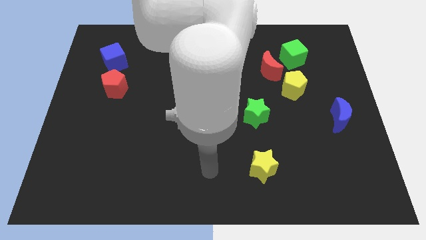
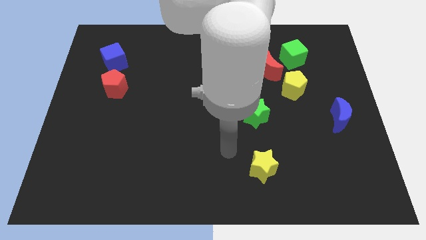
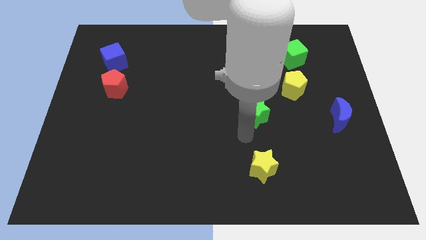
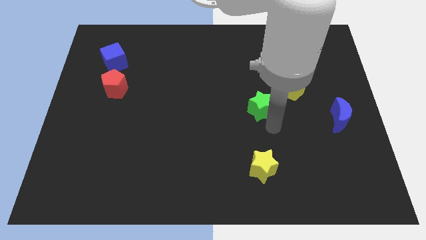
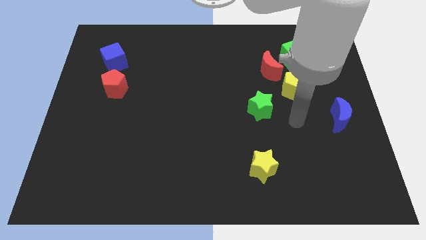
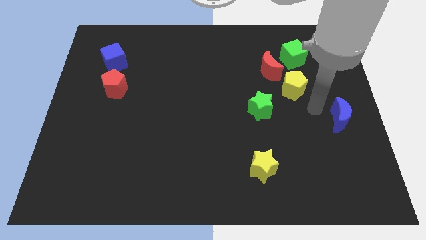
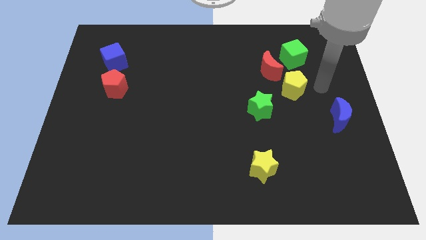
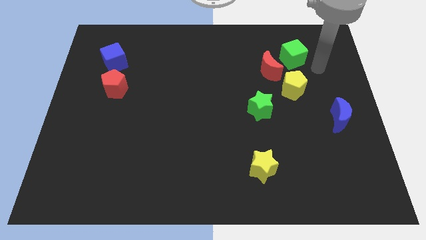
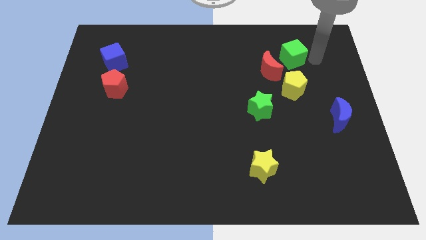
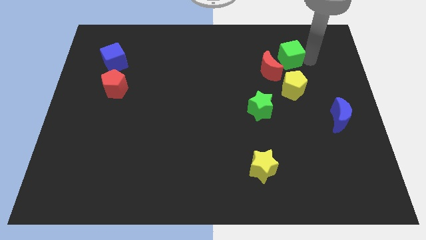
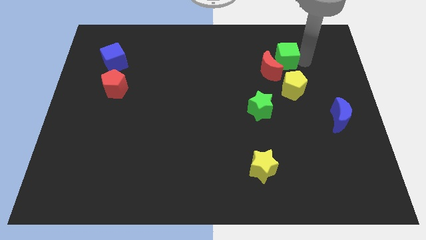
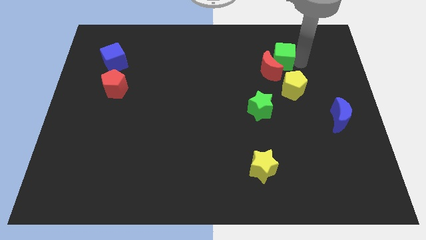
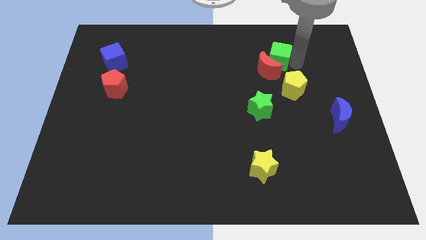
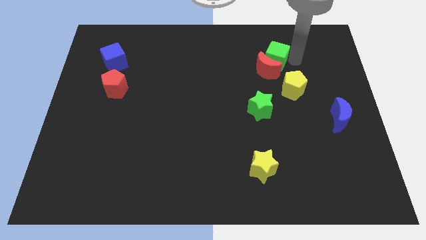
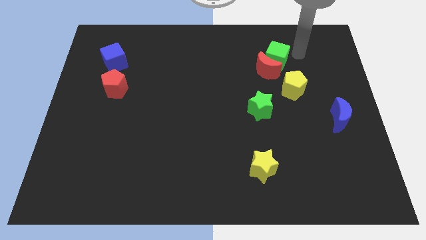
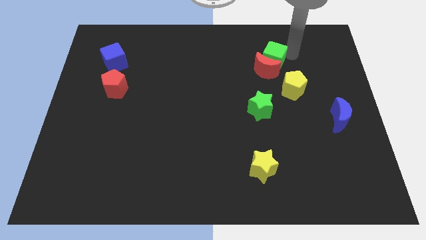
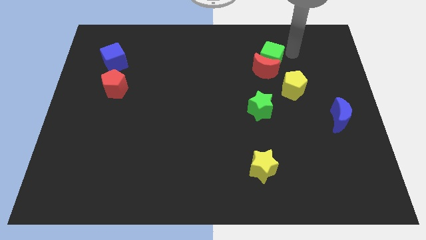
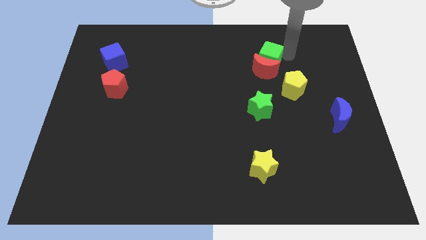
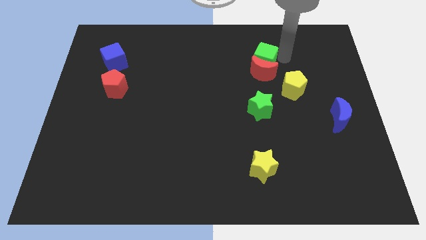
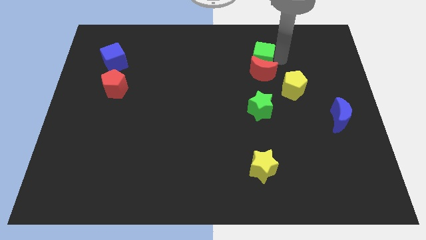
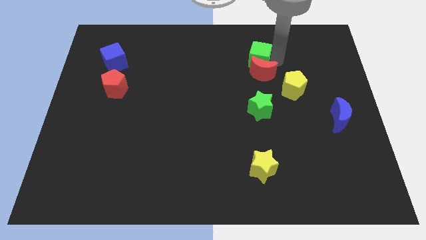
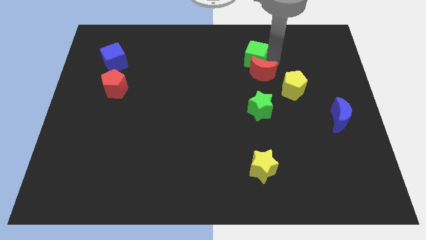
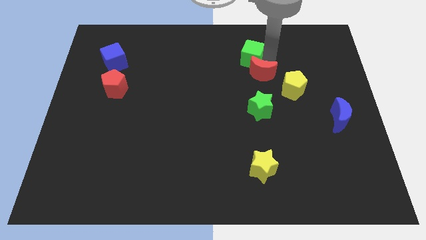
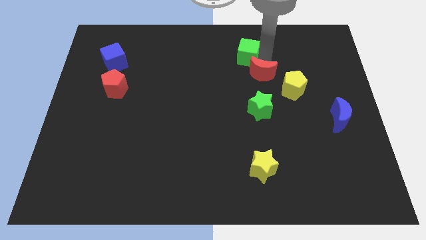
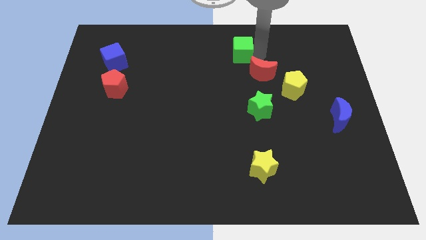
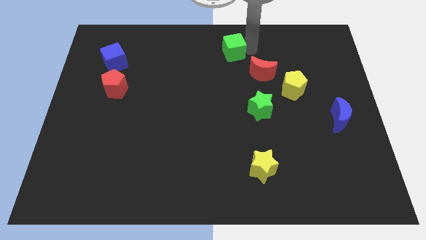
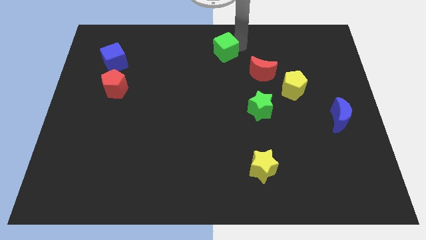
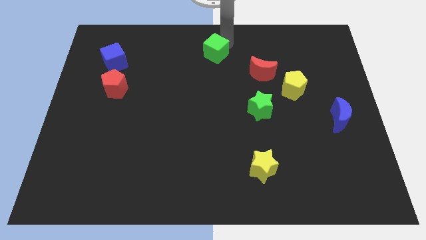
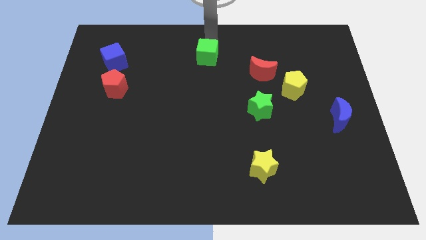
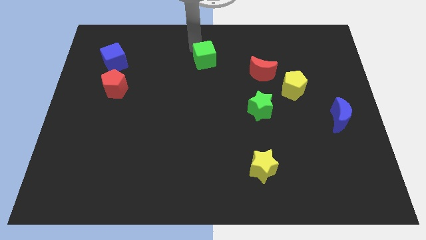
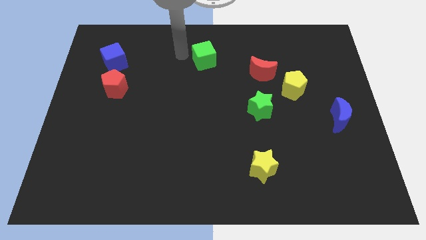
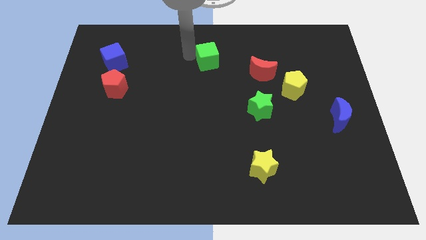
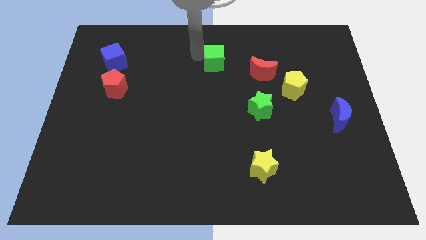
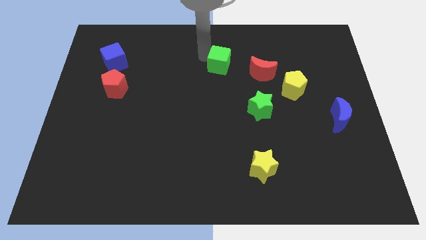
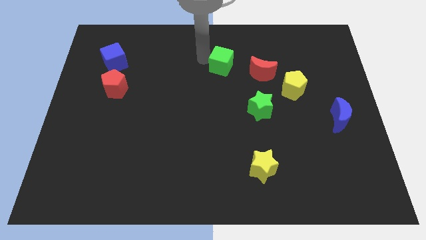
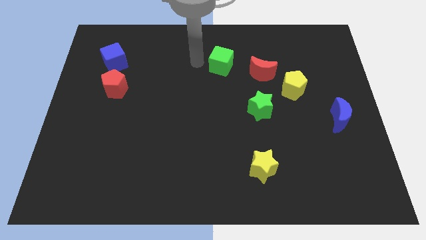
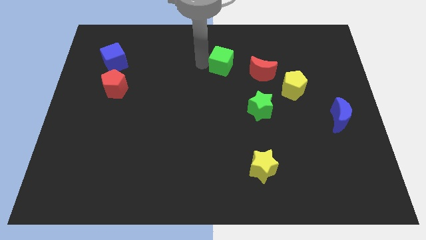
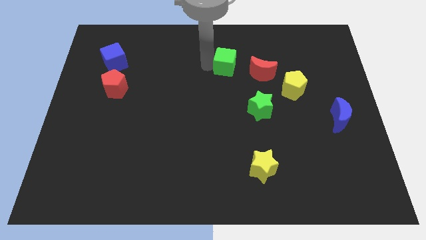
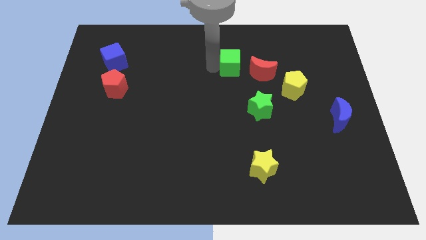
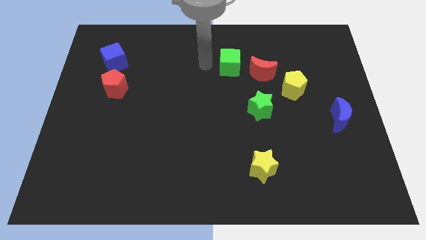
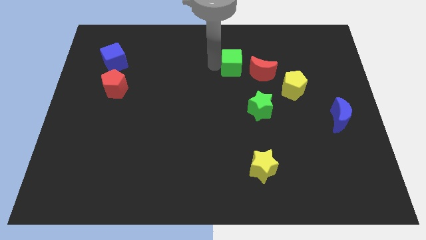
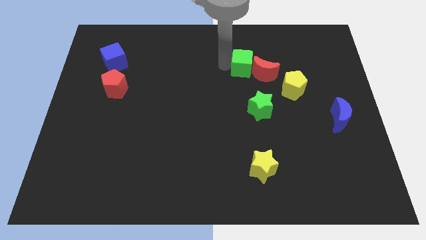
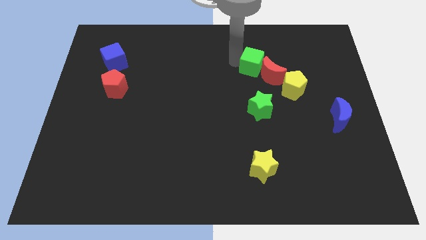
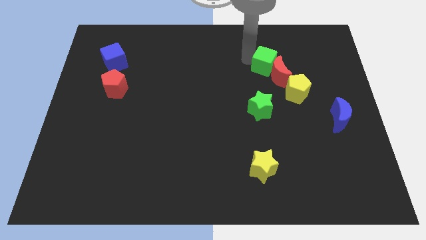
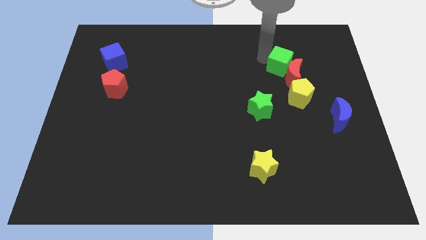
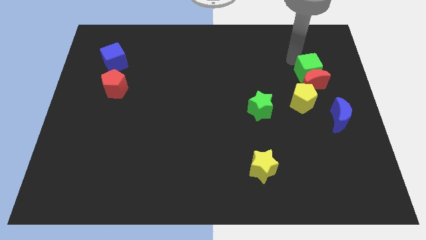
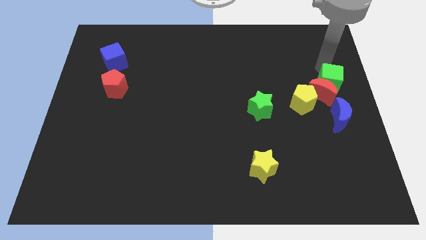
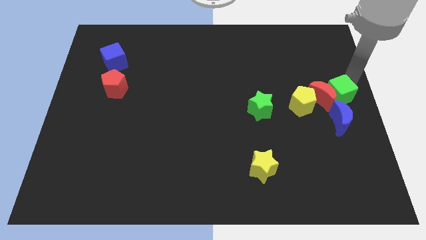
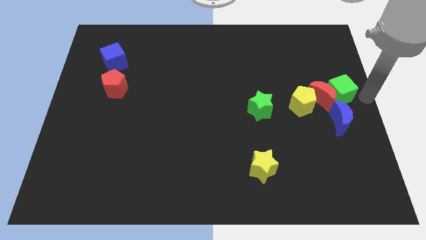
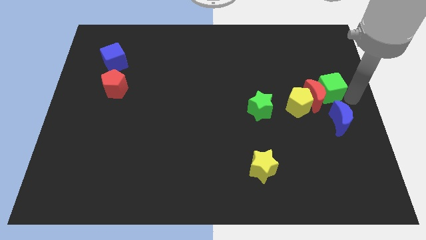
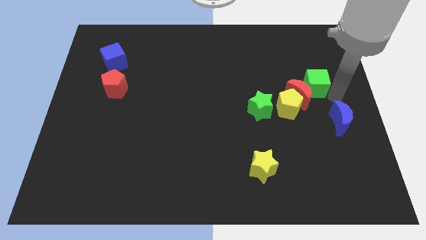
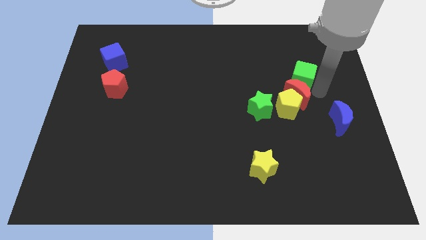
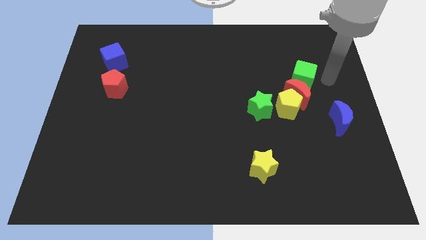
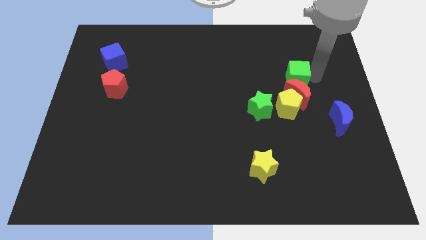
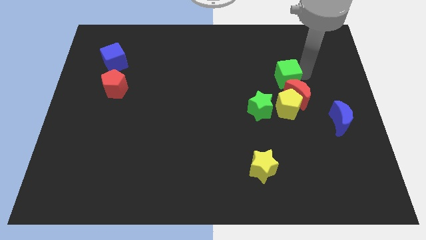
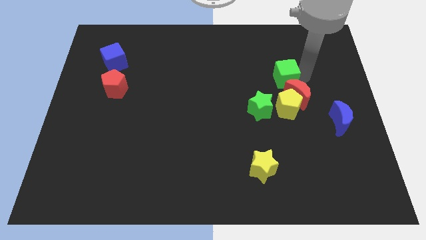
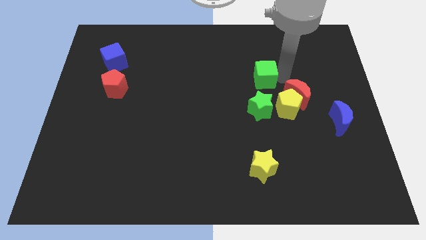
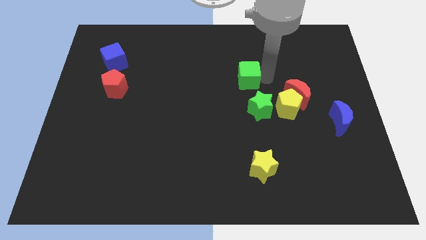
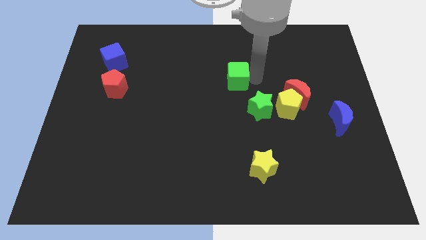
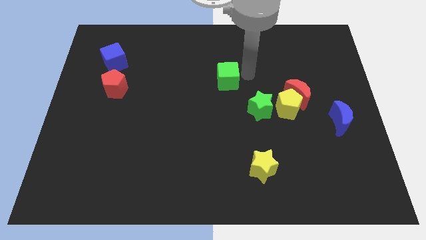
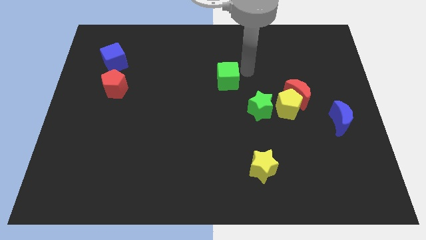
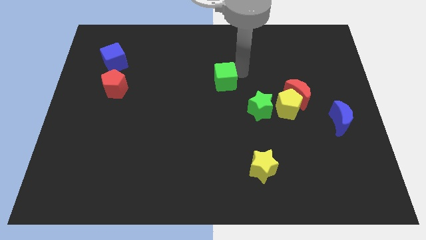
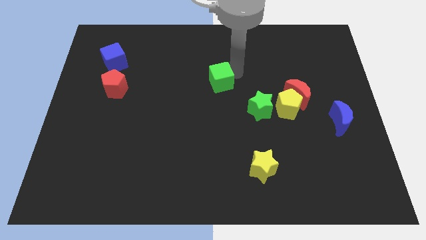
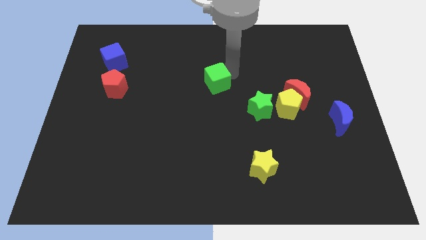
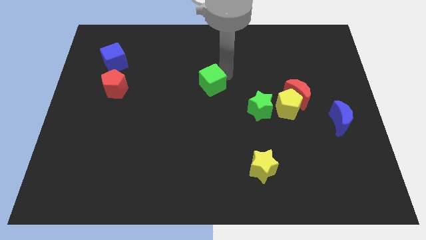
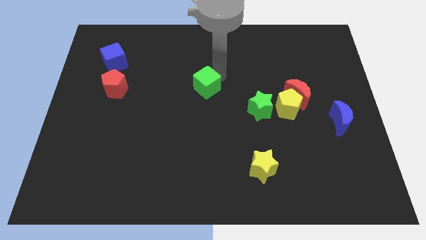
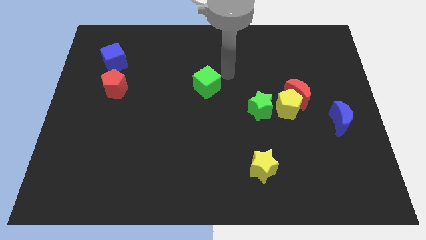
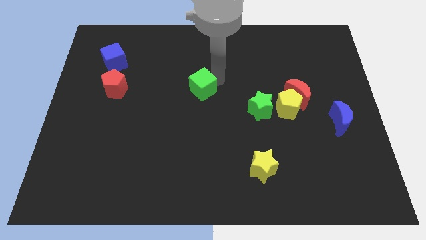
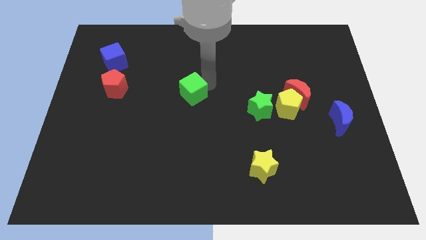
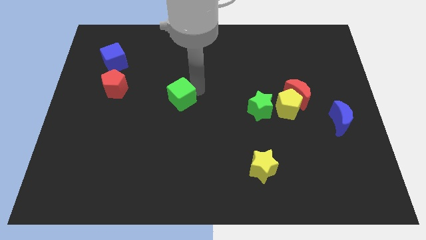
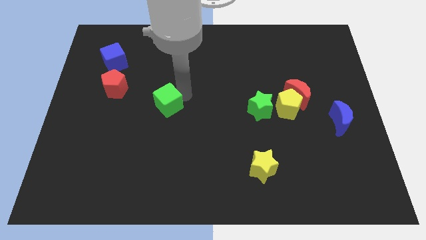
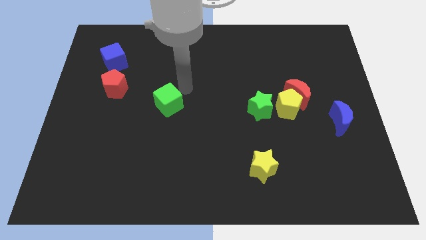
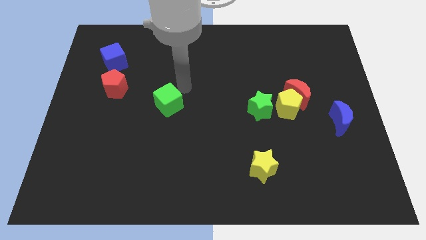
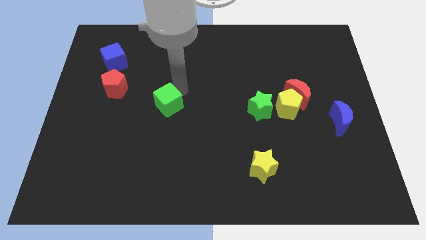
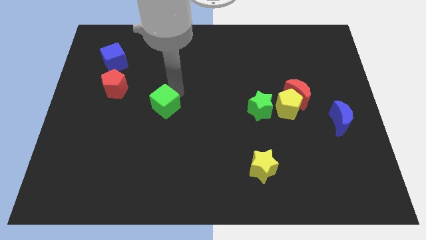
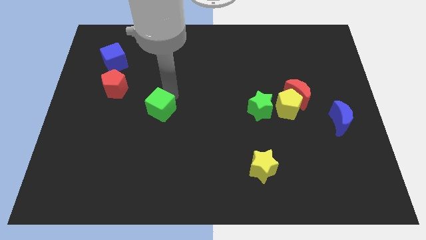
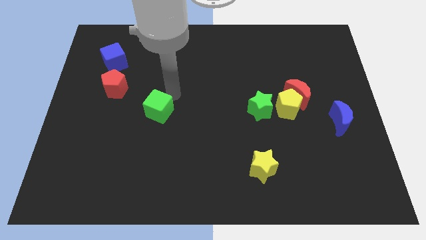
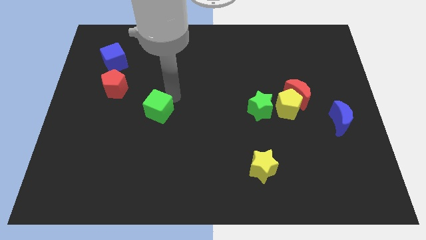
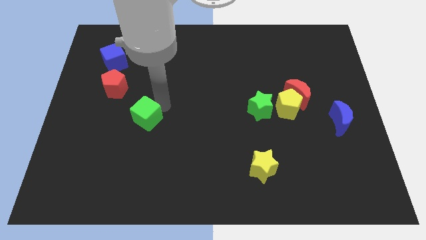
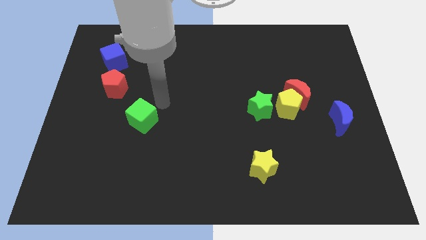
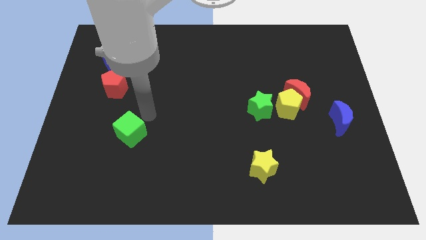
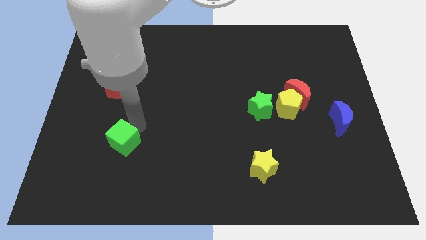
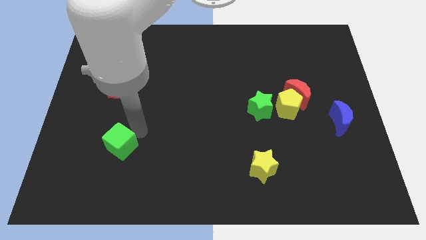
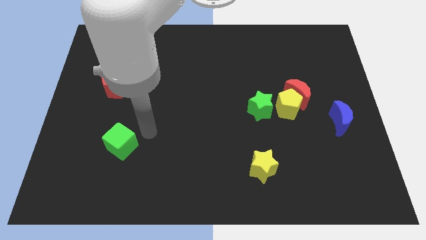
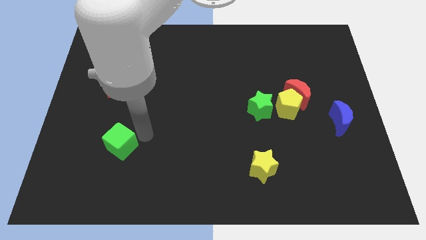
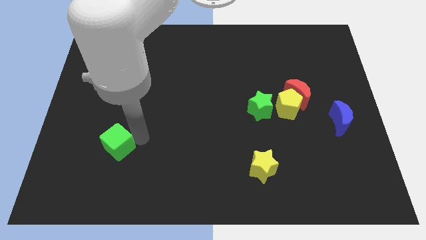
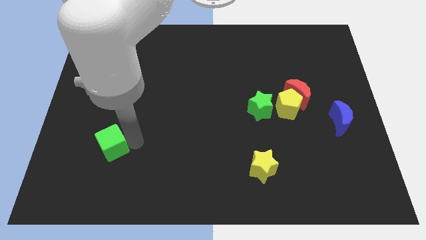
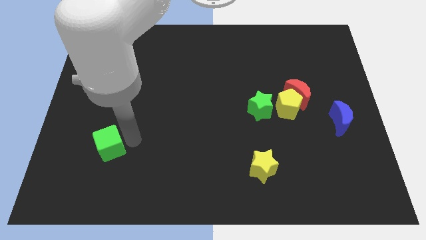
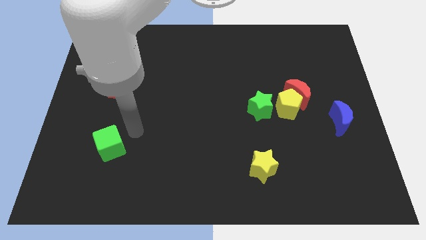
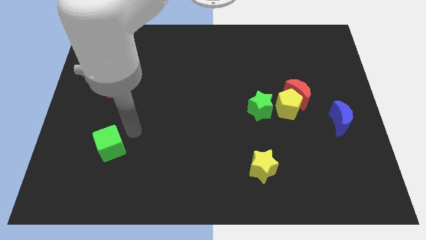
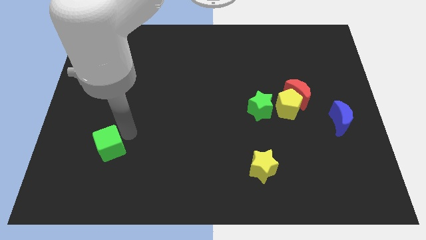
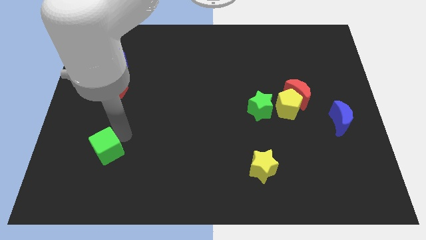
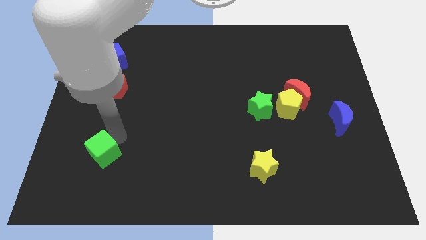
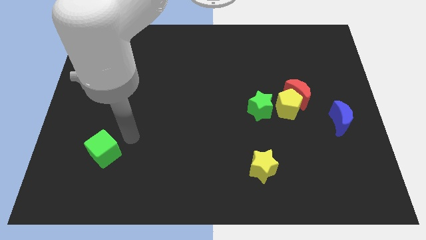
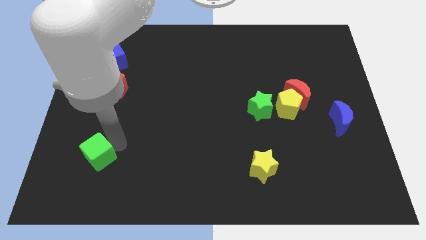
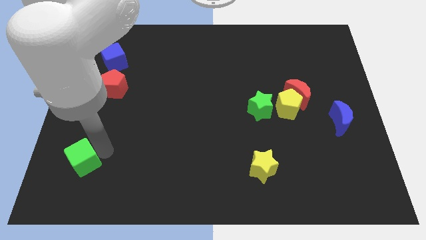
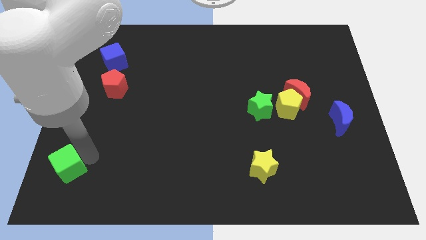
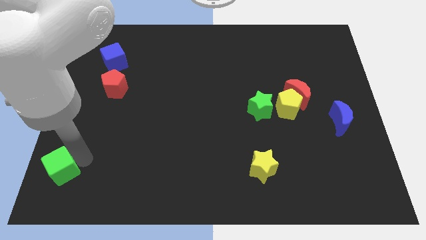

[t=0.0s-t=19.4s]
move the green cube to the bottom left
